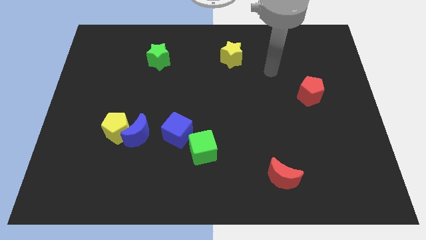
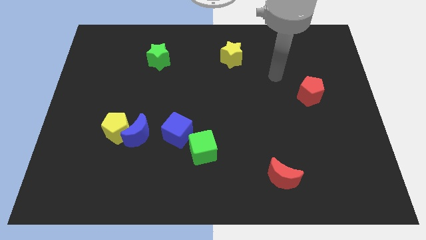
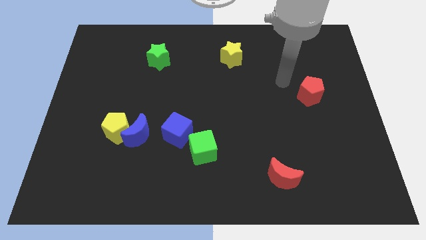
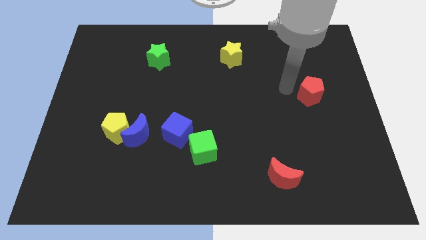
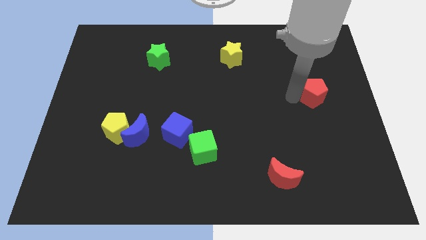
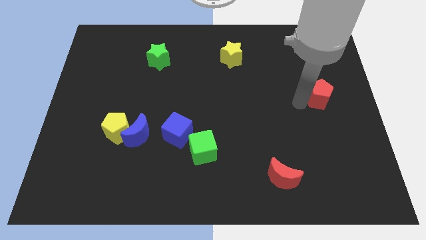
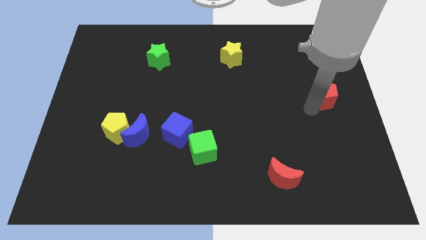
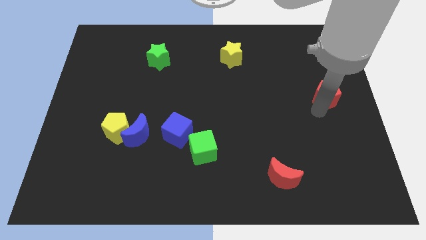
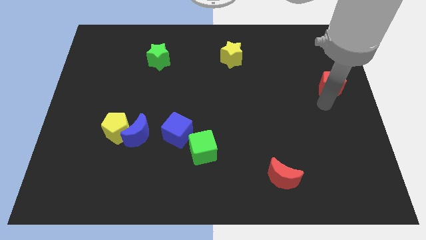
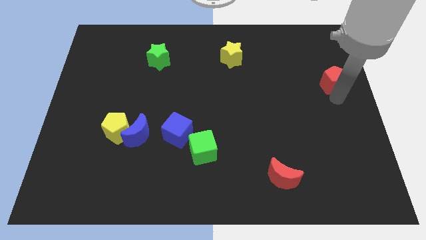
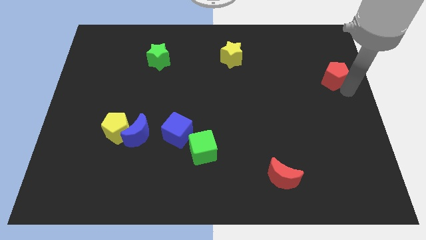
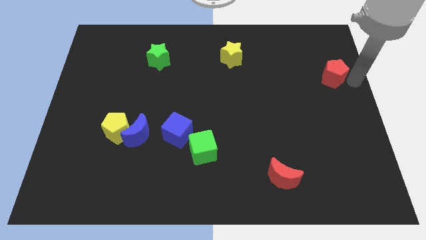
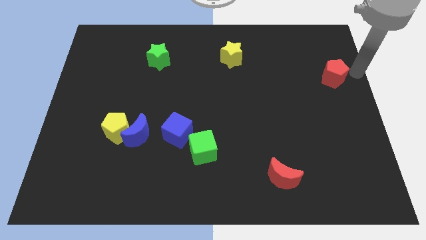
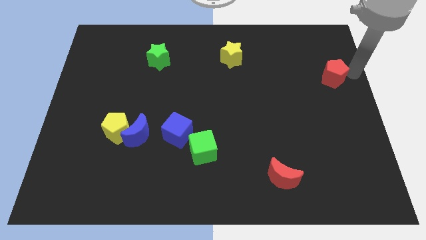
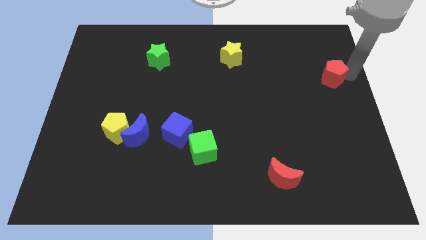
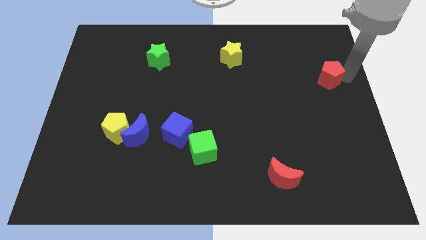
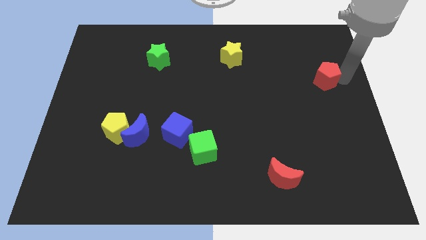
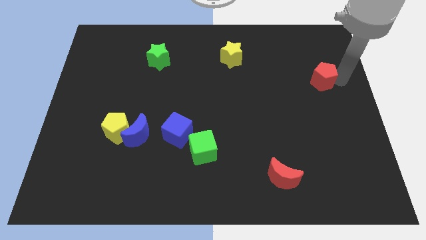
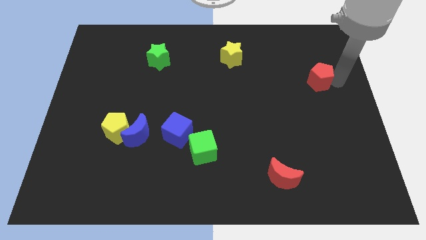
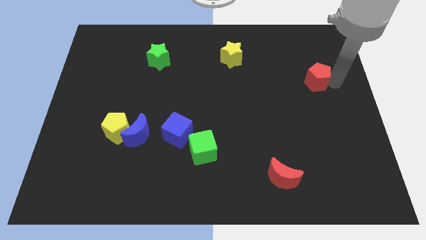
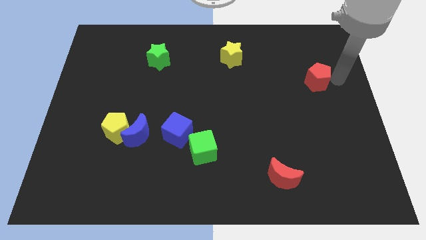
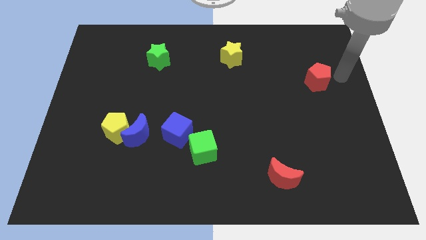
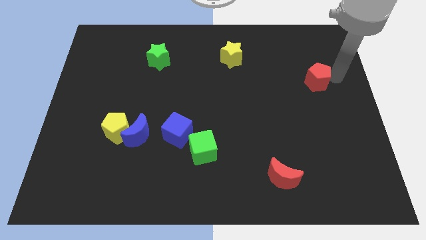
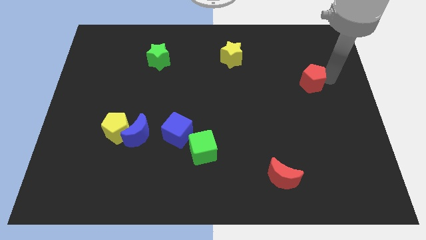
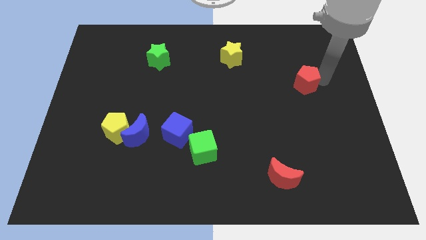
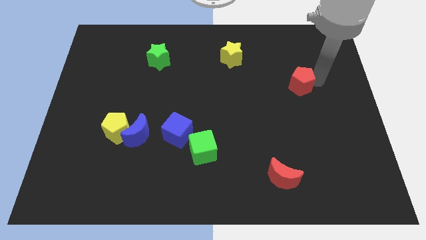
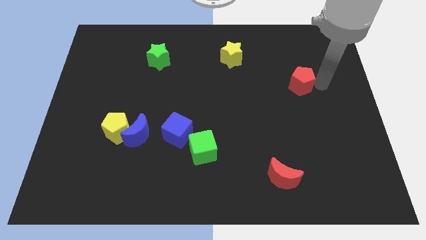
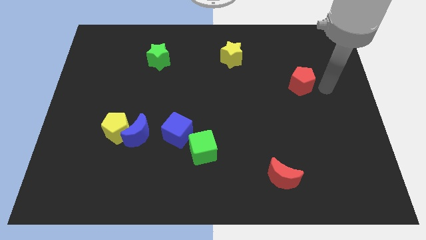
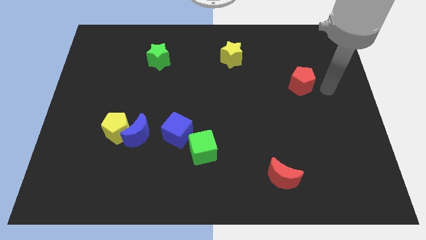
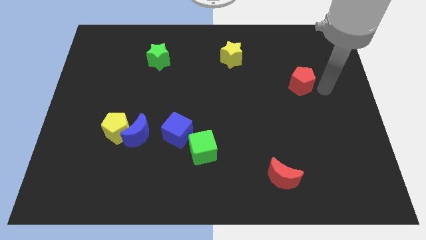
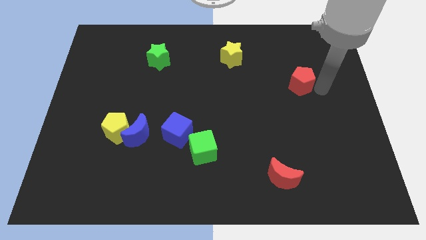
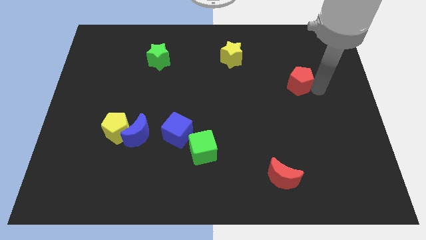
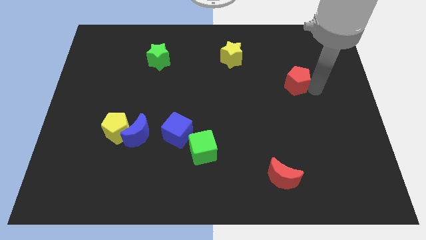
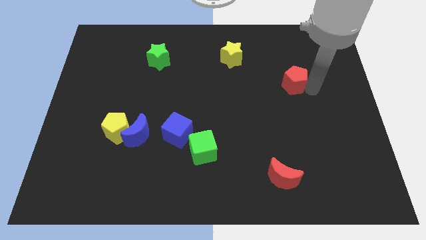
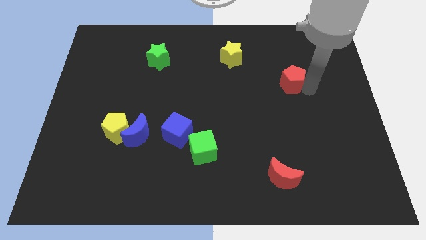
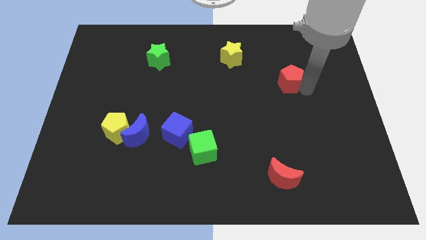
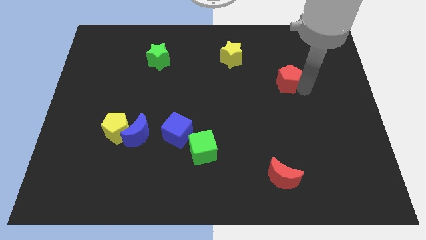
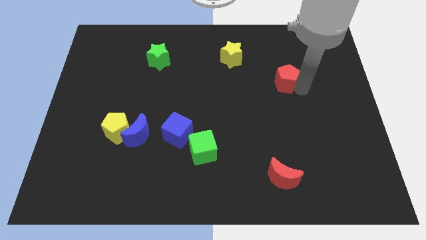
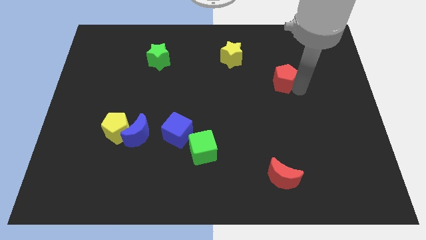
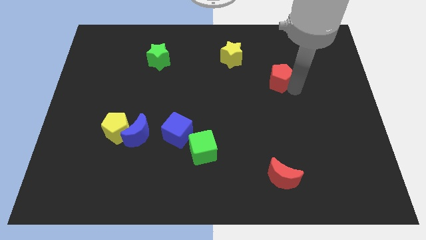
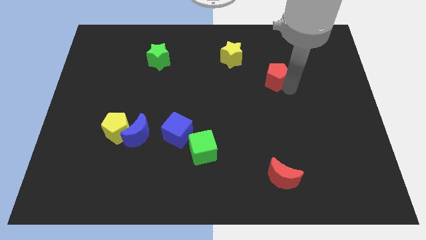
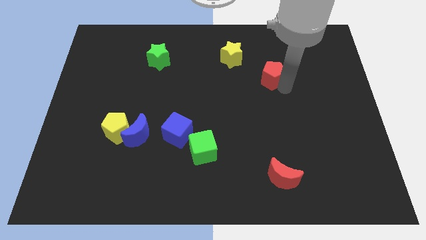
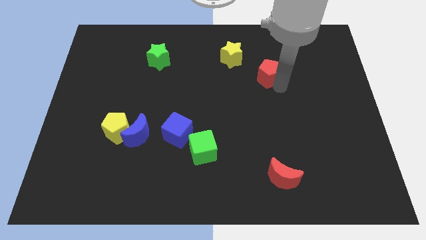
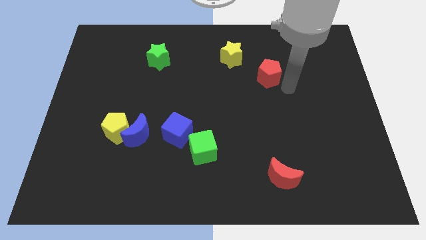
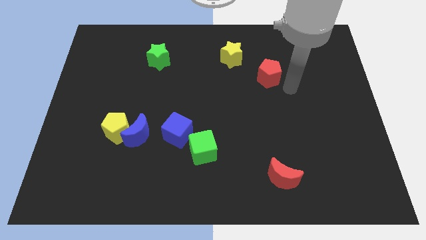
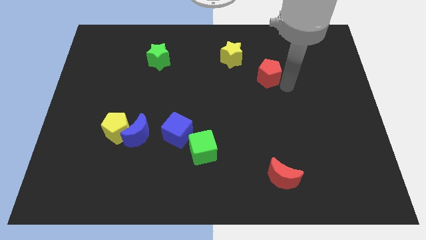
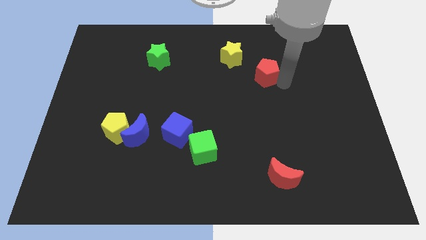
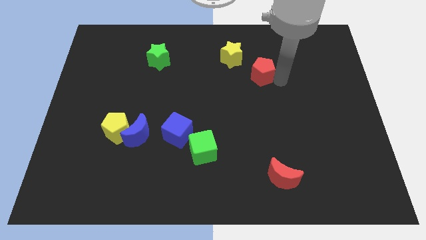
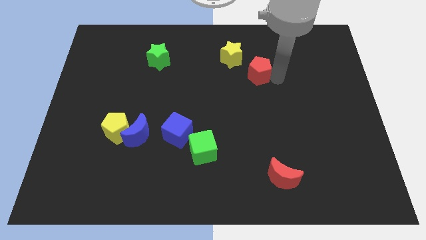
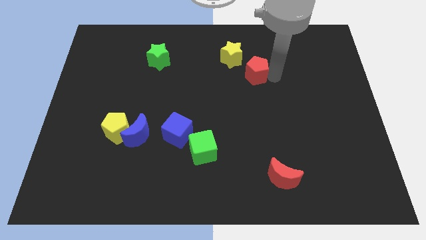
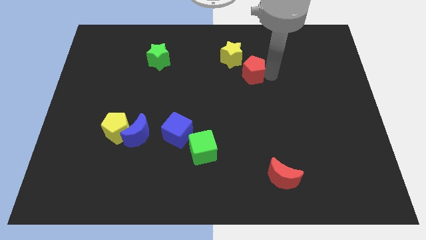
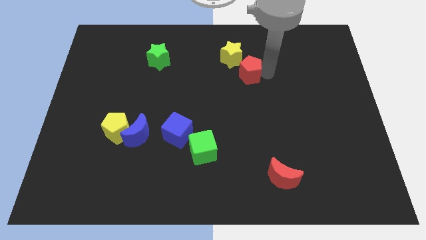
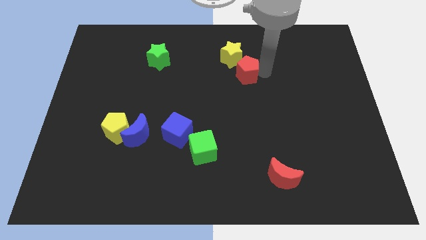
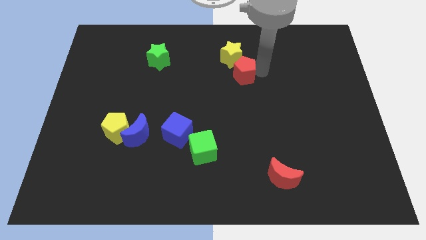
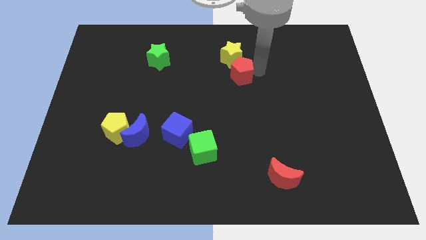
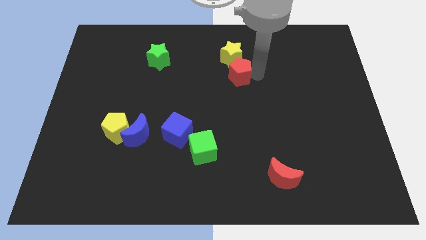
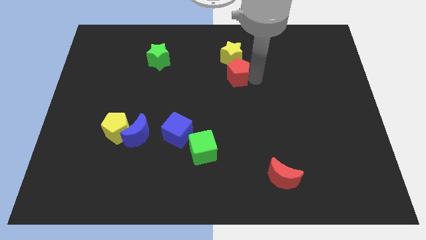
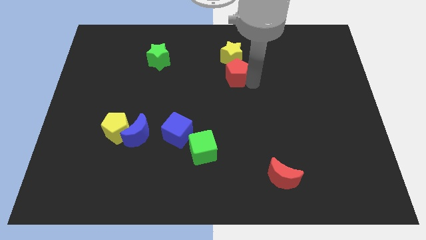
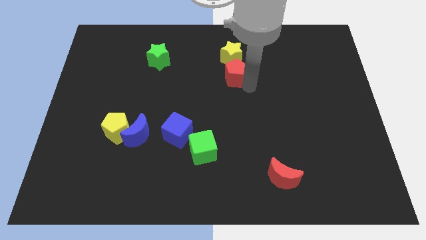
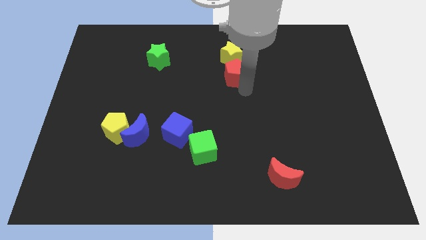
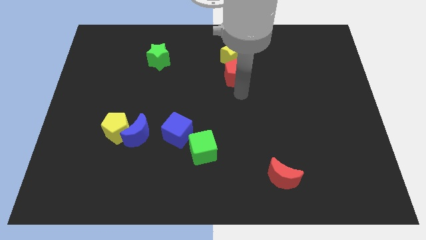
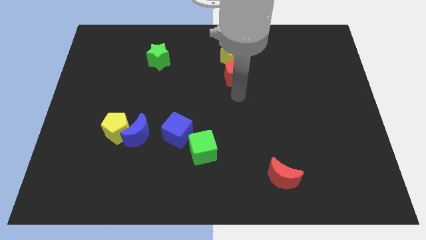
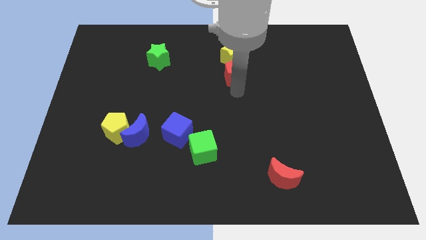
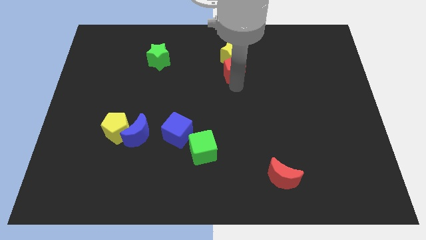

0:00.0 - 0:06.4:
move the red pentagon to the yellow star

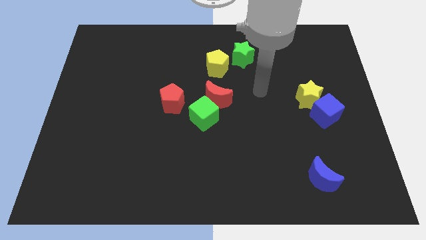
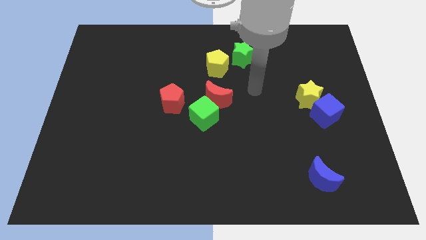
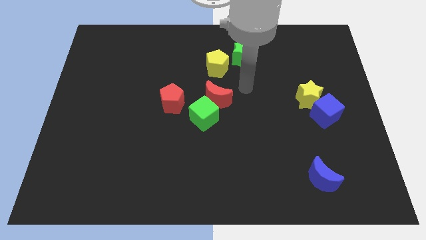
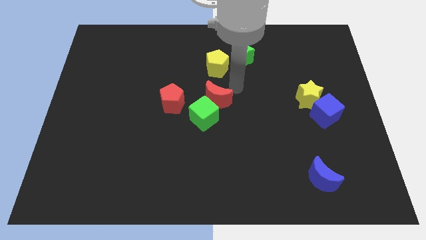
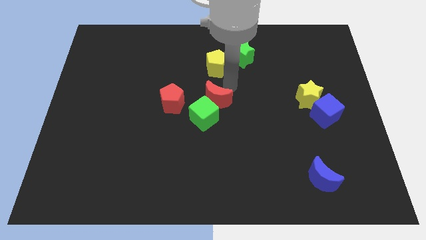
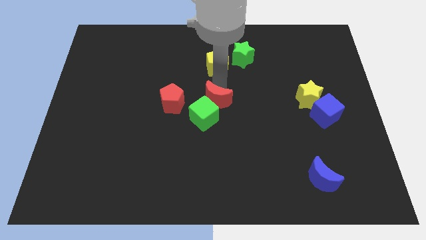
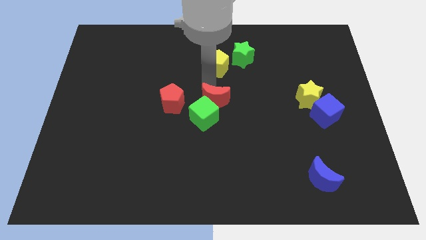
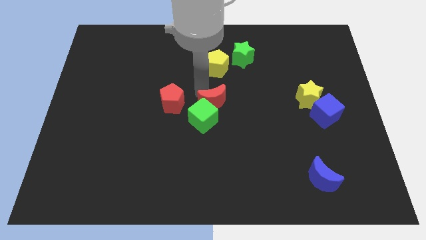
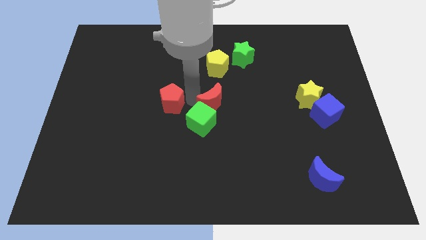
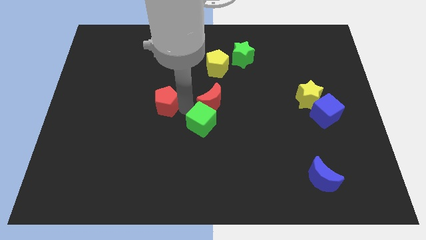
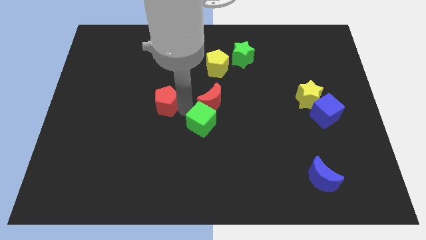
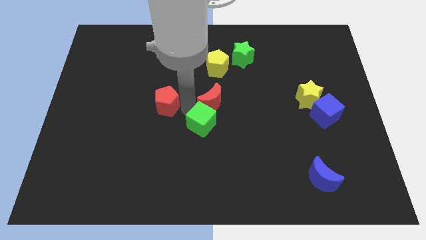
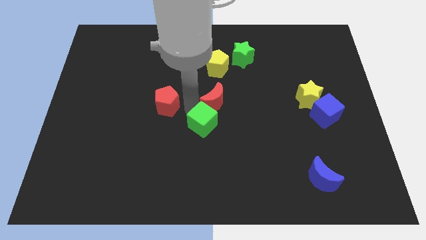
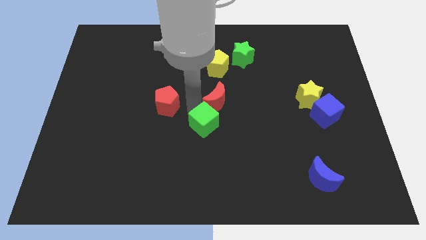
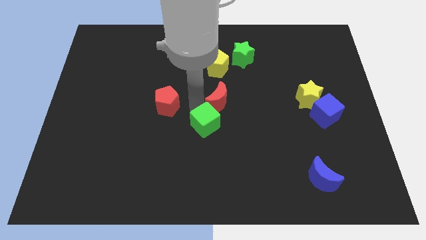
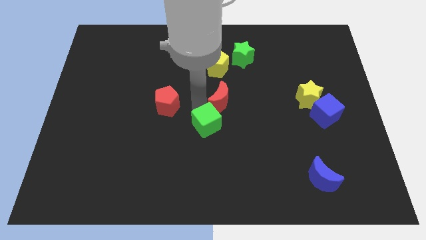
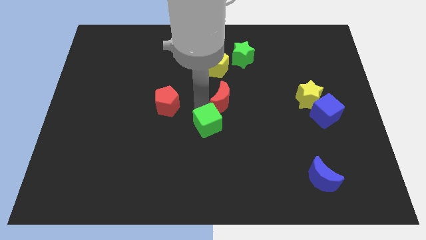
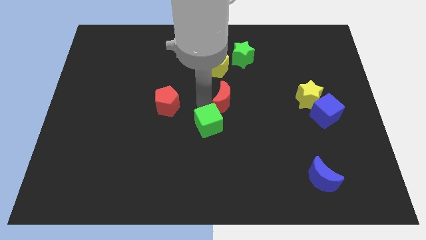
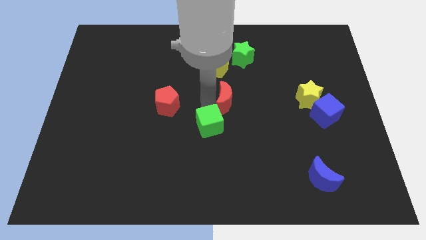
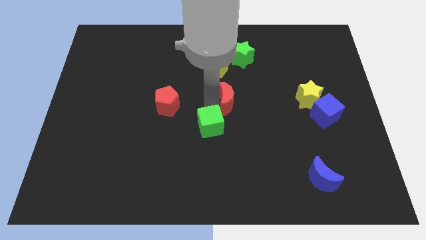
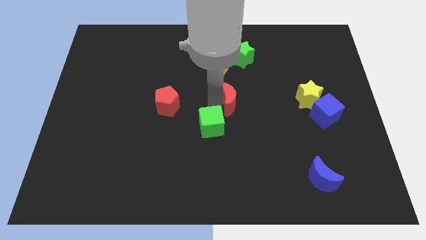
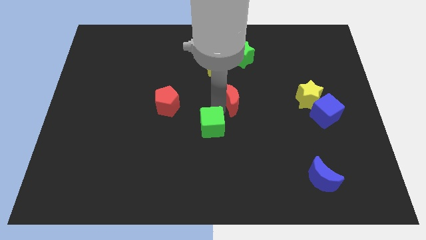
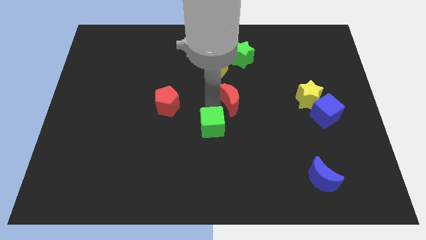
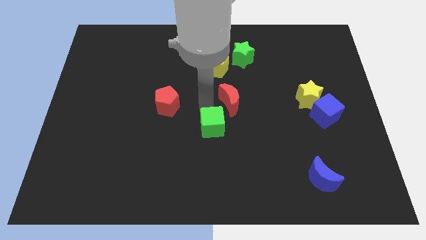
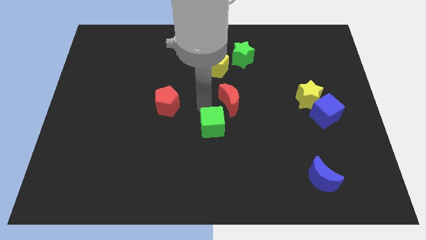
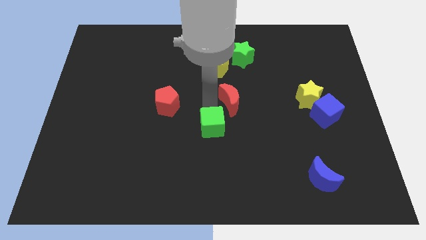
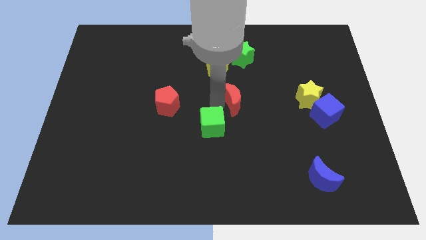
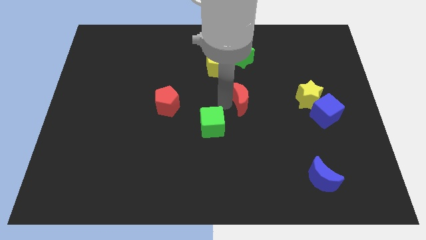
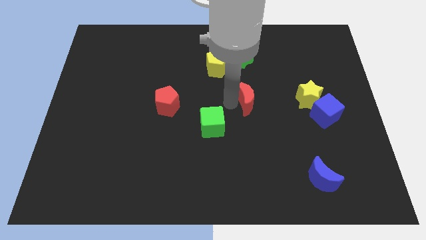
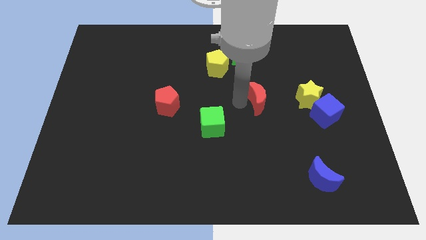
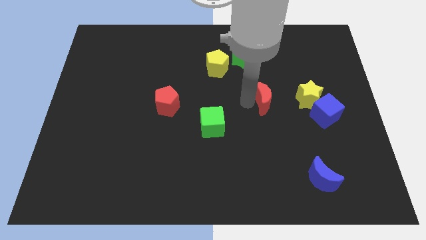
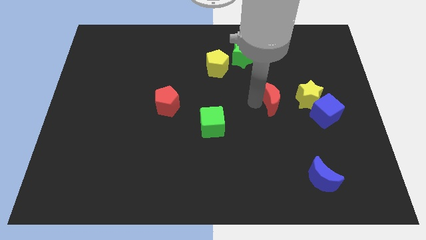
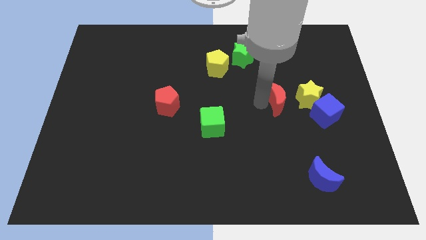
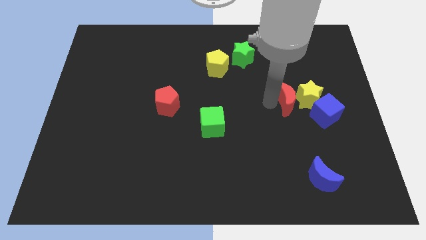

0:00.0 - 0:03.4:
put the red moon towards the yellow star
